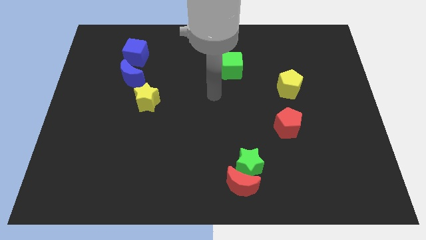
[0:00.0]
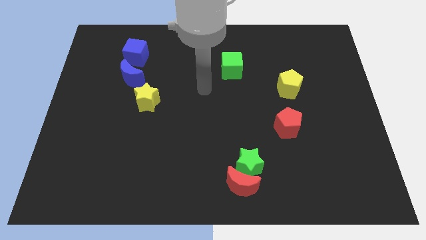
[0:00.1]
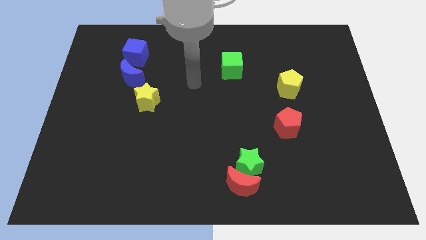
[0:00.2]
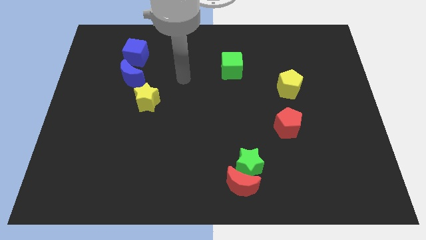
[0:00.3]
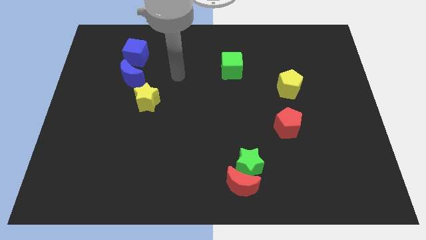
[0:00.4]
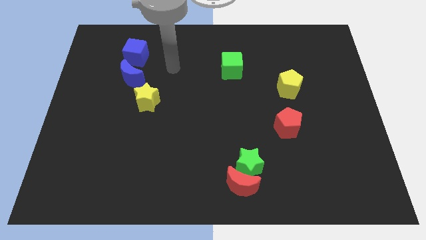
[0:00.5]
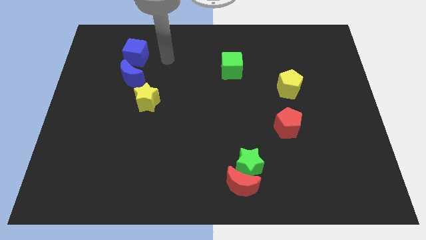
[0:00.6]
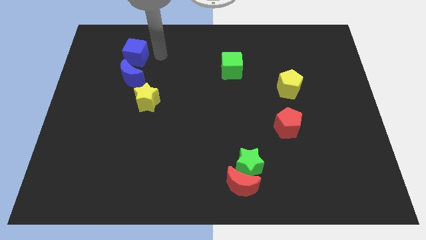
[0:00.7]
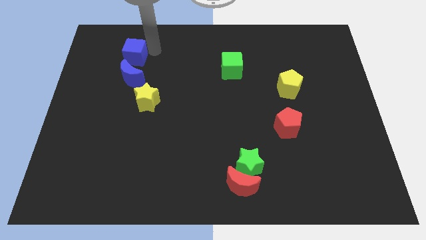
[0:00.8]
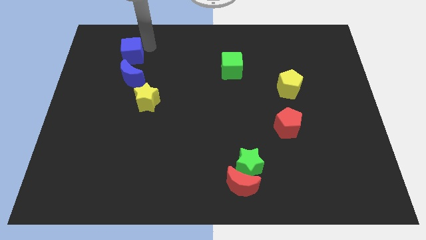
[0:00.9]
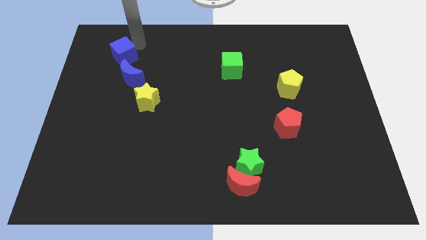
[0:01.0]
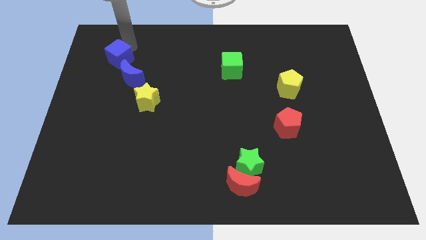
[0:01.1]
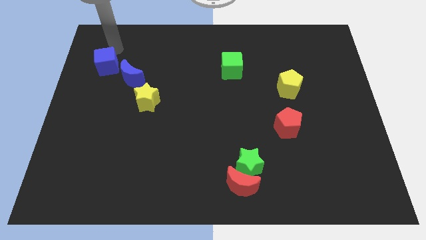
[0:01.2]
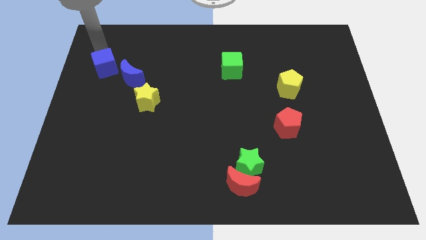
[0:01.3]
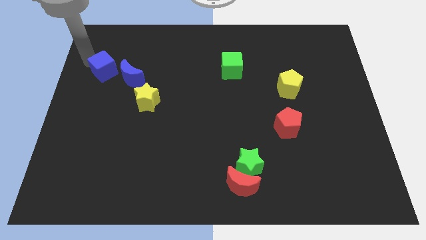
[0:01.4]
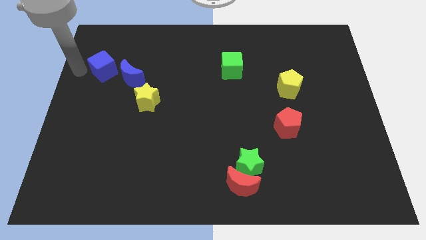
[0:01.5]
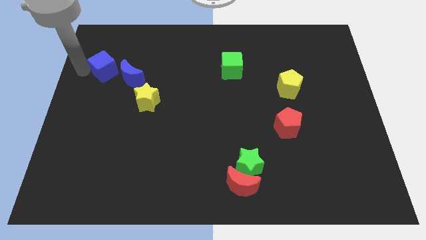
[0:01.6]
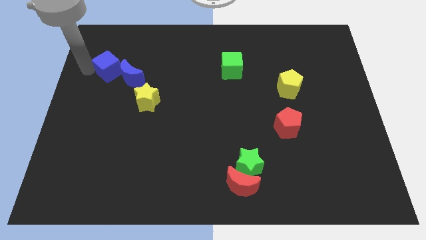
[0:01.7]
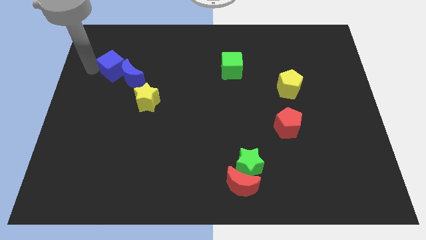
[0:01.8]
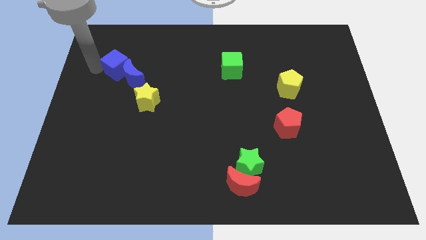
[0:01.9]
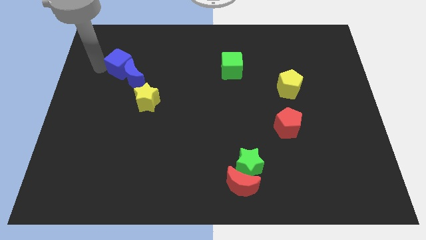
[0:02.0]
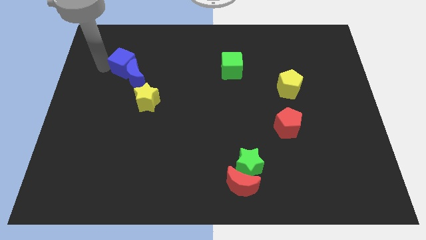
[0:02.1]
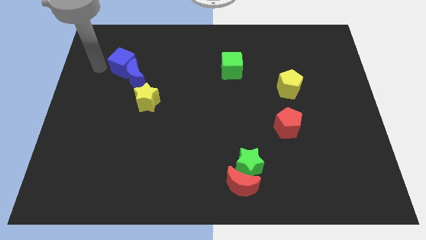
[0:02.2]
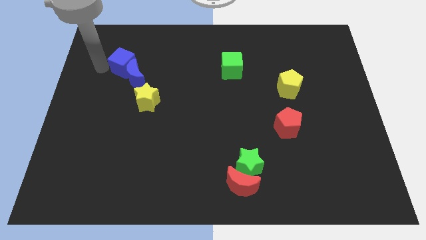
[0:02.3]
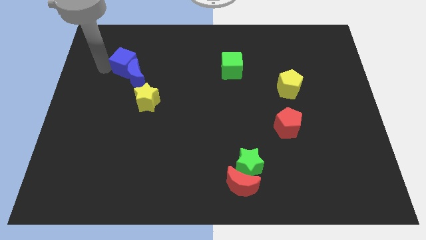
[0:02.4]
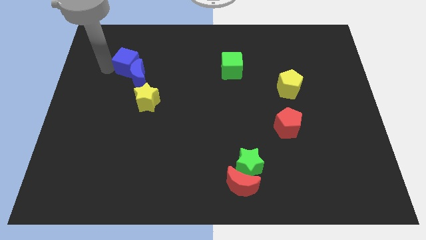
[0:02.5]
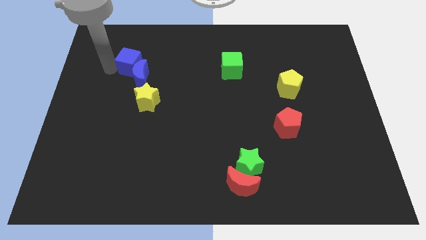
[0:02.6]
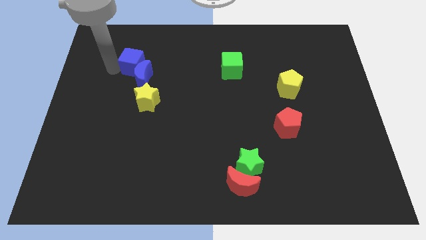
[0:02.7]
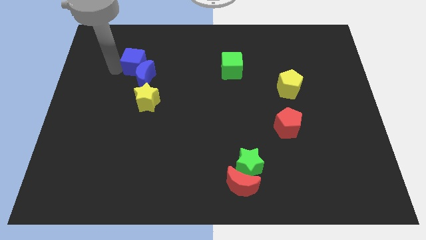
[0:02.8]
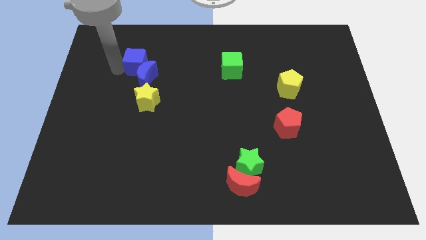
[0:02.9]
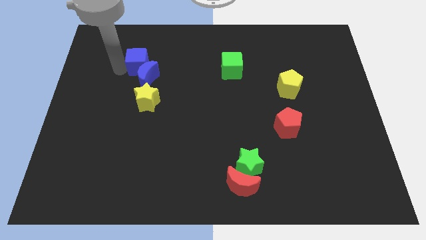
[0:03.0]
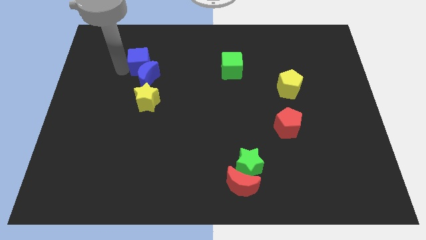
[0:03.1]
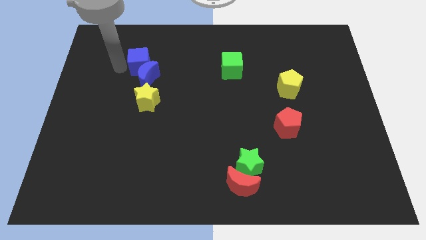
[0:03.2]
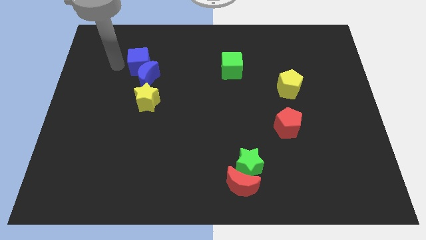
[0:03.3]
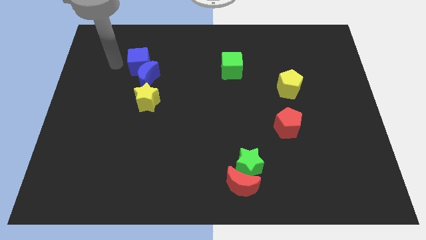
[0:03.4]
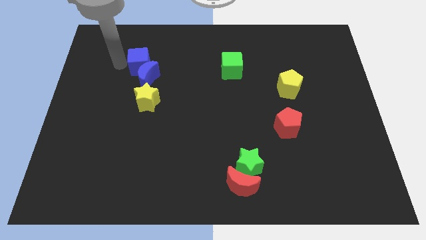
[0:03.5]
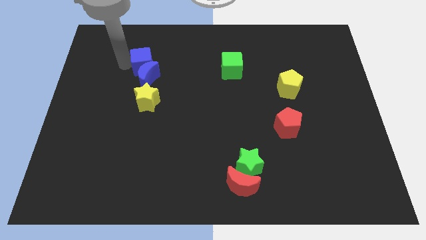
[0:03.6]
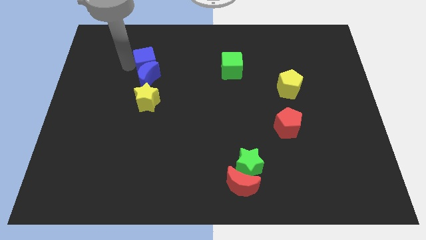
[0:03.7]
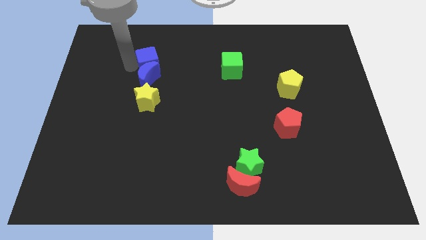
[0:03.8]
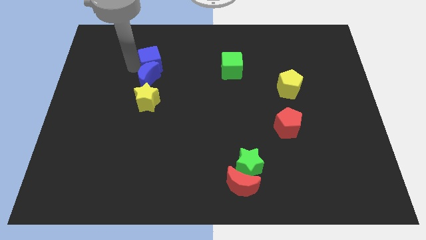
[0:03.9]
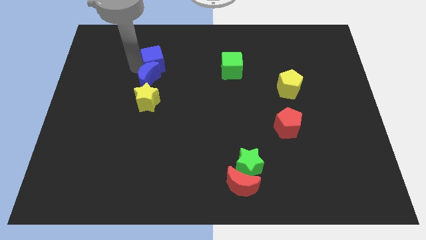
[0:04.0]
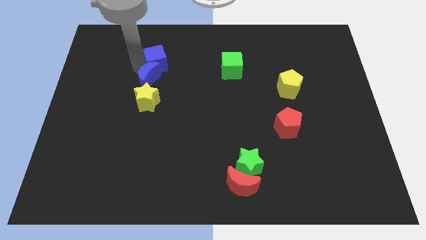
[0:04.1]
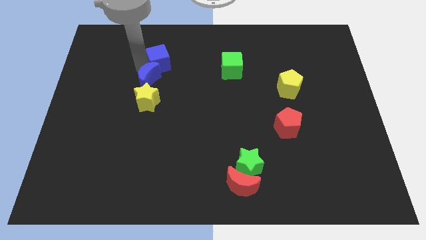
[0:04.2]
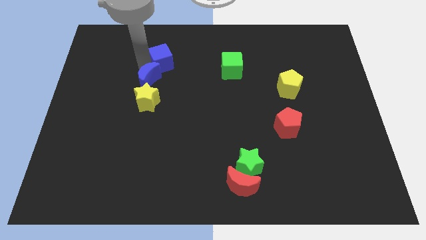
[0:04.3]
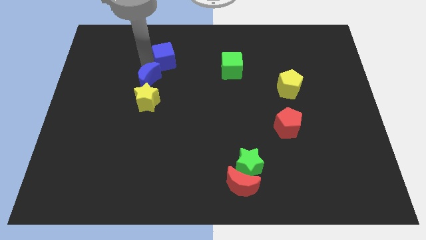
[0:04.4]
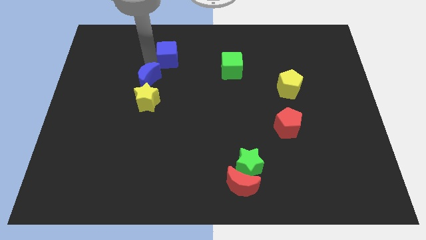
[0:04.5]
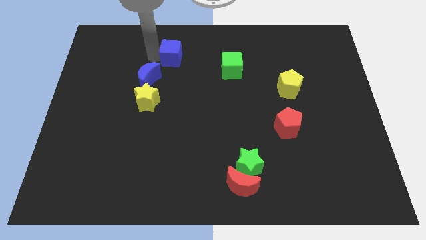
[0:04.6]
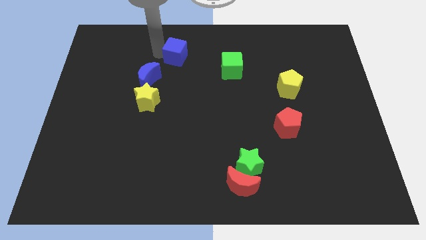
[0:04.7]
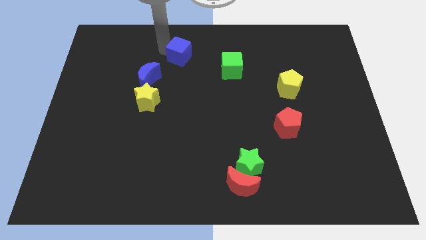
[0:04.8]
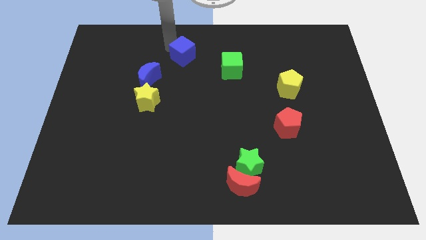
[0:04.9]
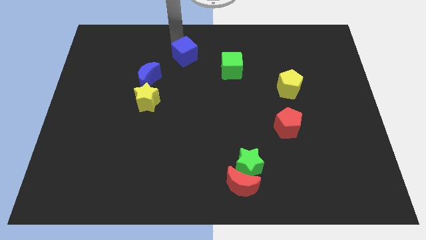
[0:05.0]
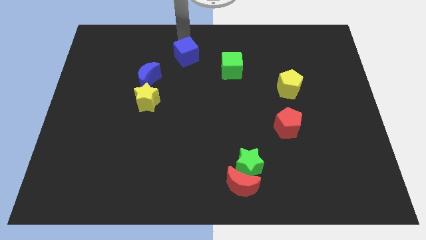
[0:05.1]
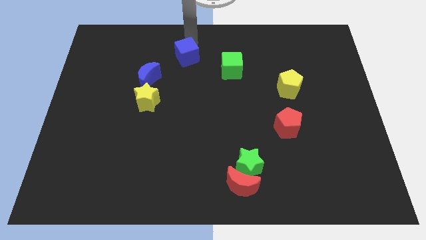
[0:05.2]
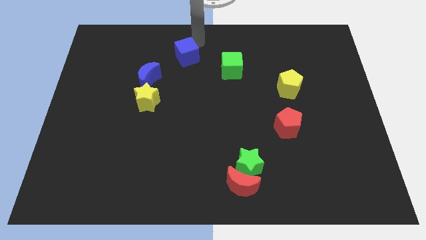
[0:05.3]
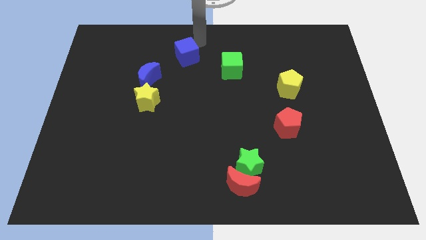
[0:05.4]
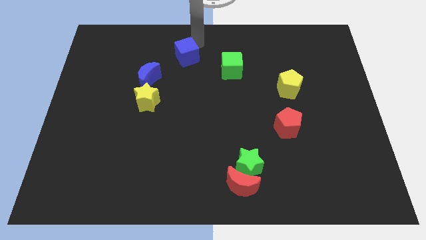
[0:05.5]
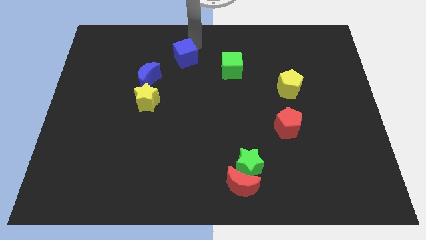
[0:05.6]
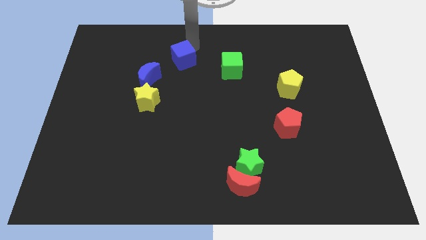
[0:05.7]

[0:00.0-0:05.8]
slightly move the blue cube downwards and to the right

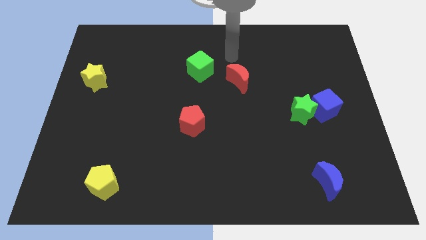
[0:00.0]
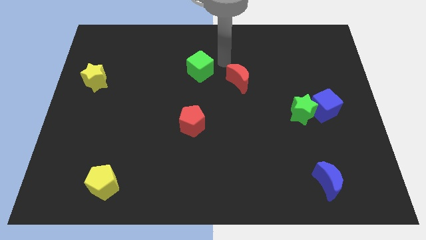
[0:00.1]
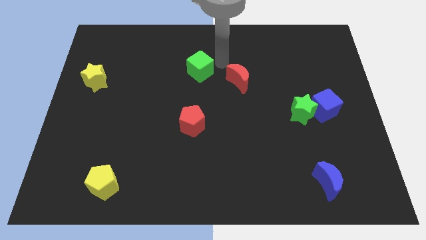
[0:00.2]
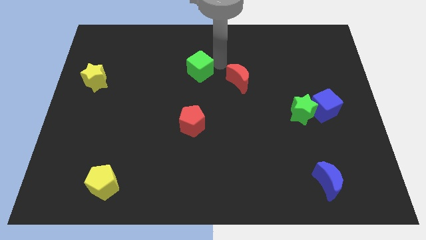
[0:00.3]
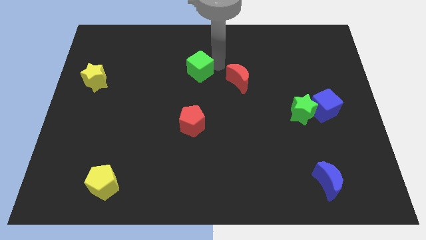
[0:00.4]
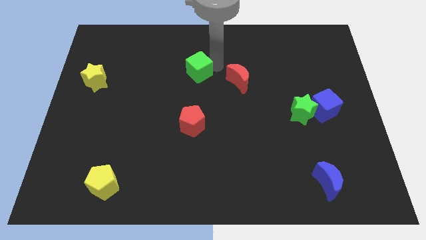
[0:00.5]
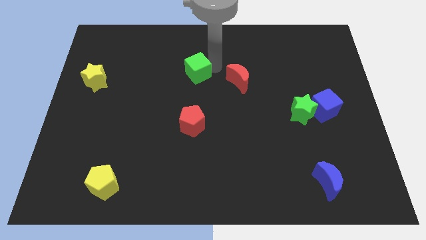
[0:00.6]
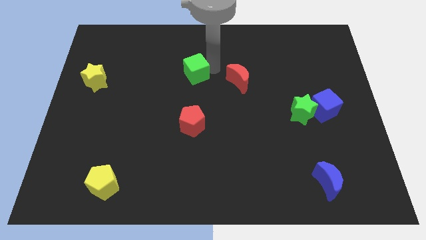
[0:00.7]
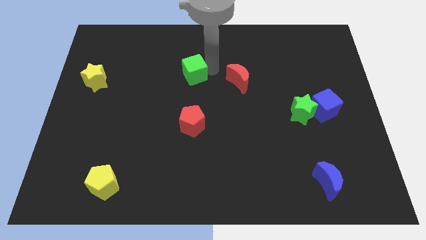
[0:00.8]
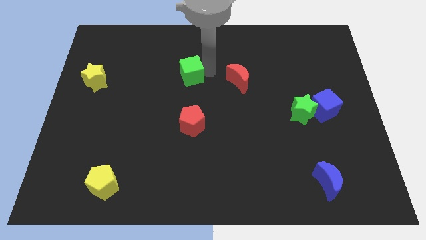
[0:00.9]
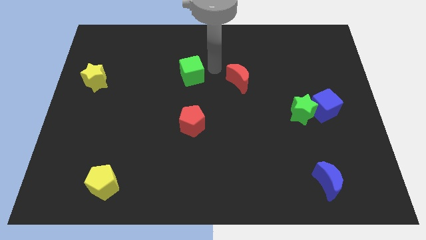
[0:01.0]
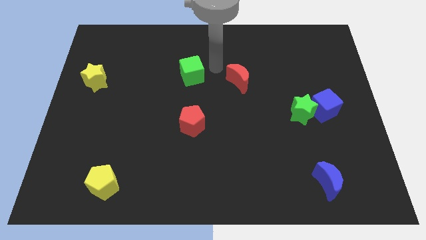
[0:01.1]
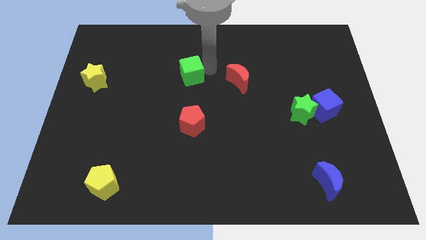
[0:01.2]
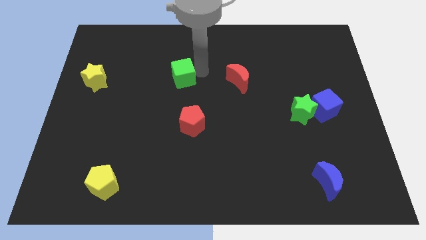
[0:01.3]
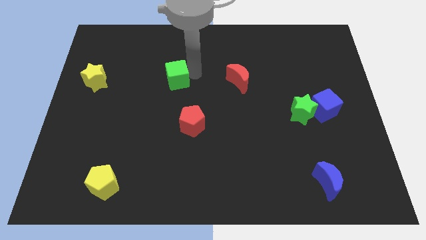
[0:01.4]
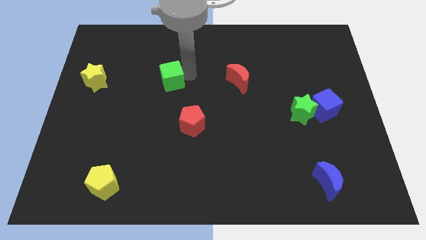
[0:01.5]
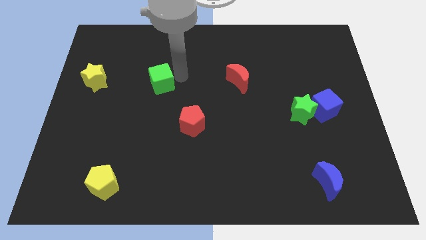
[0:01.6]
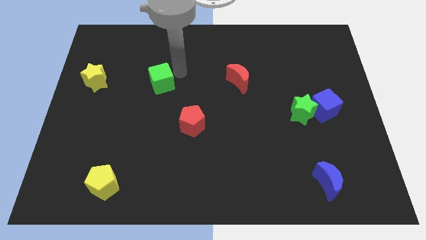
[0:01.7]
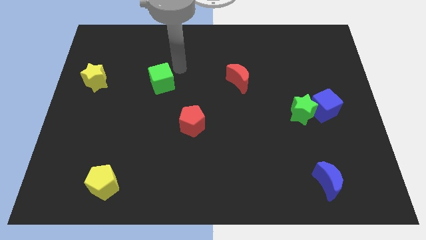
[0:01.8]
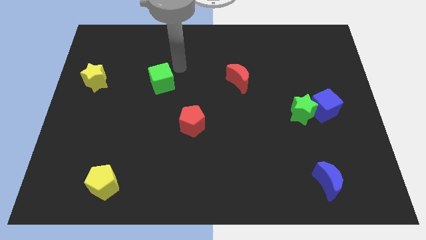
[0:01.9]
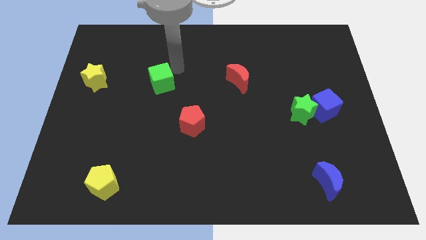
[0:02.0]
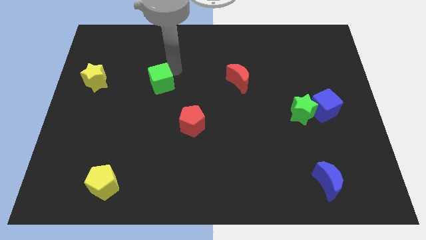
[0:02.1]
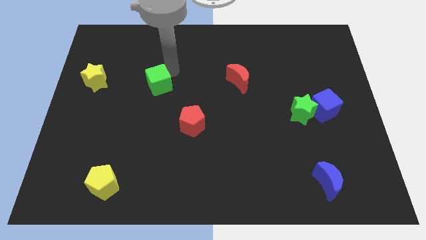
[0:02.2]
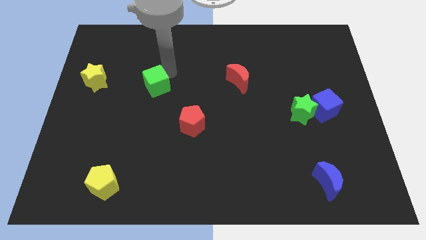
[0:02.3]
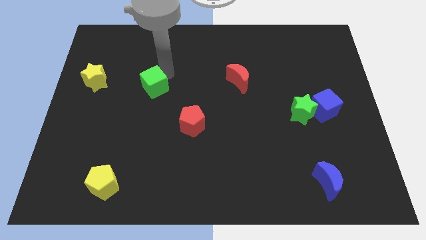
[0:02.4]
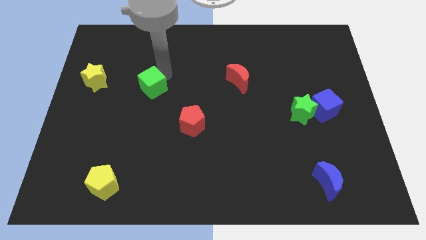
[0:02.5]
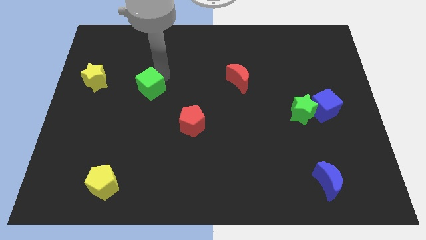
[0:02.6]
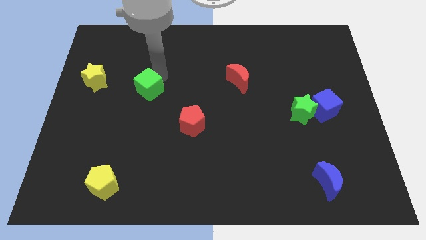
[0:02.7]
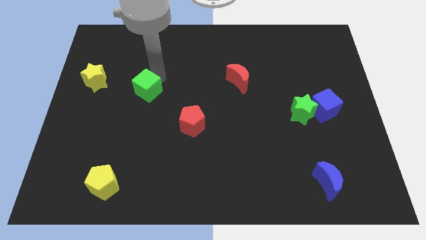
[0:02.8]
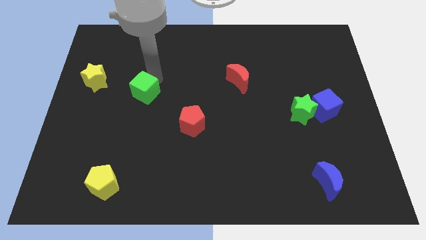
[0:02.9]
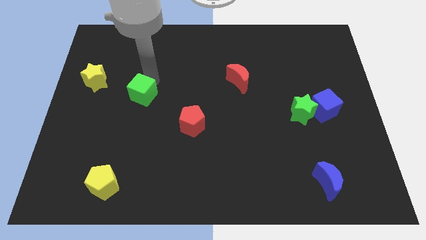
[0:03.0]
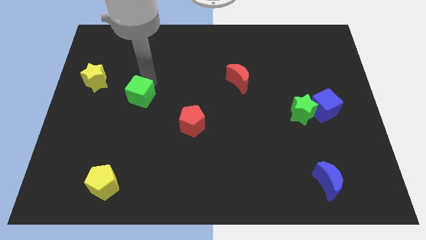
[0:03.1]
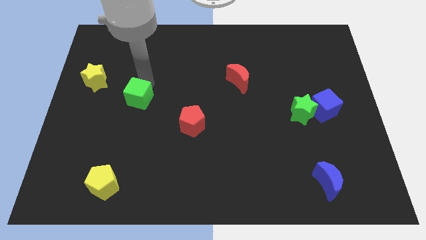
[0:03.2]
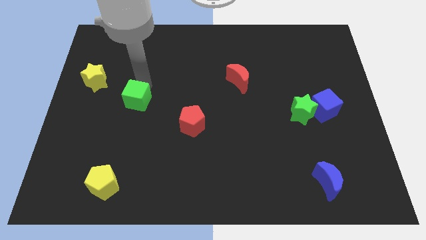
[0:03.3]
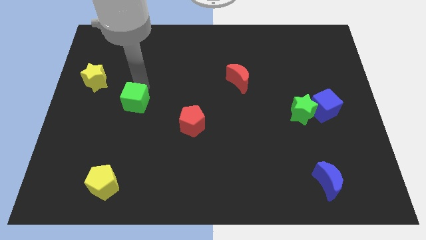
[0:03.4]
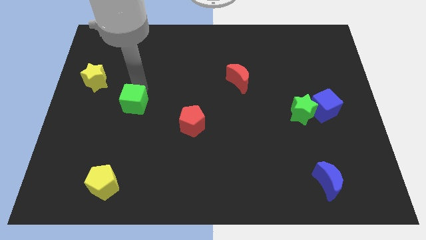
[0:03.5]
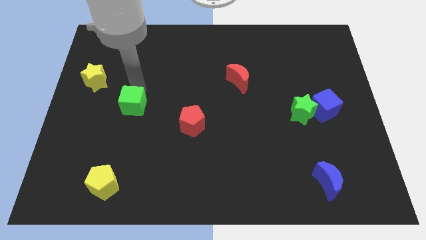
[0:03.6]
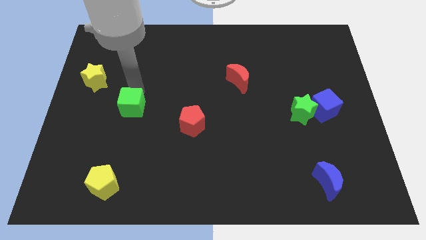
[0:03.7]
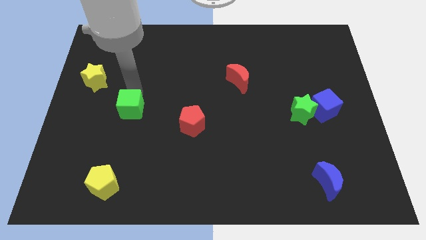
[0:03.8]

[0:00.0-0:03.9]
move the green cube downwards and then to the left
